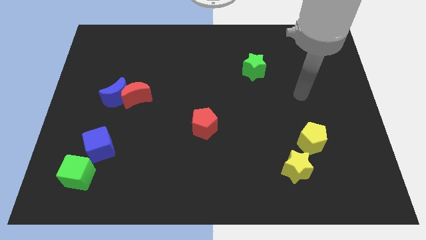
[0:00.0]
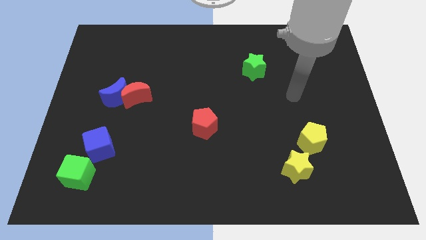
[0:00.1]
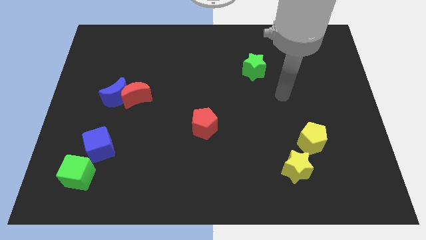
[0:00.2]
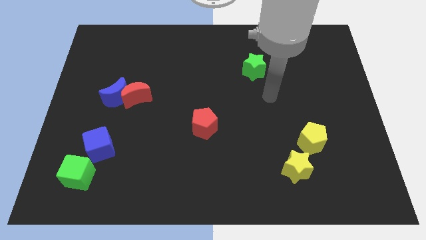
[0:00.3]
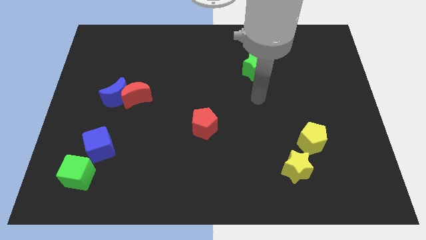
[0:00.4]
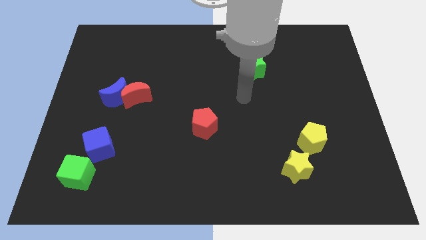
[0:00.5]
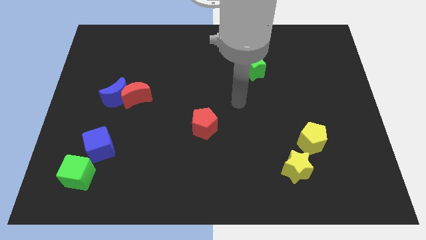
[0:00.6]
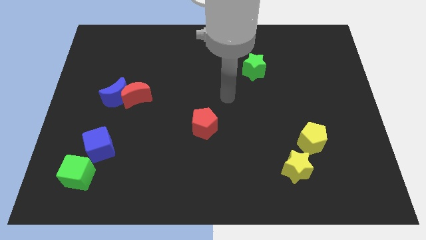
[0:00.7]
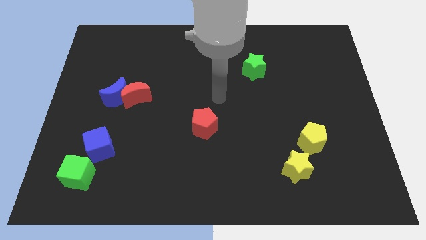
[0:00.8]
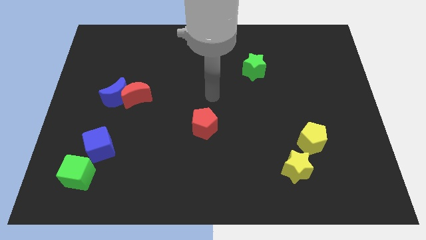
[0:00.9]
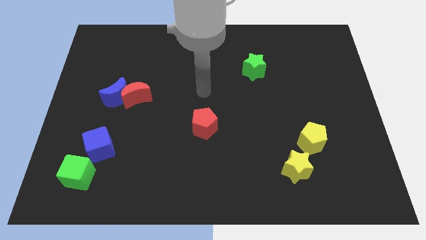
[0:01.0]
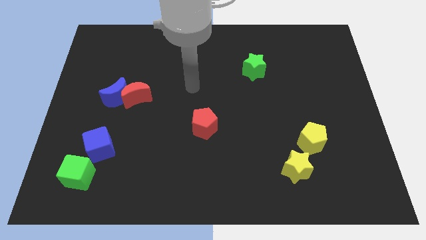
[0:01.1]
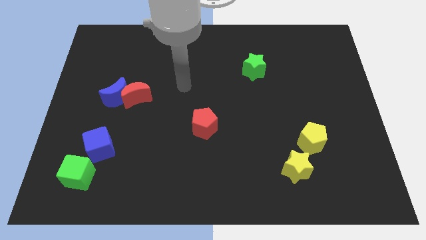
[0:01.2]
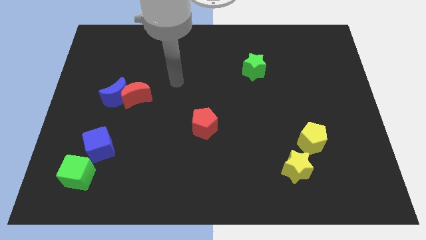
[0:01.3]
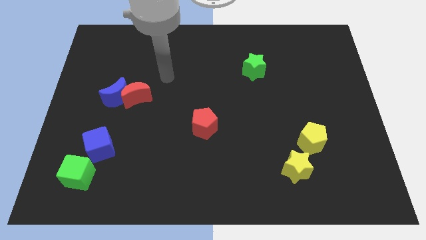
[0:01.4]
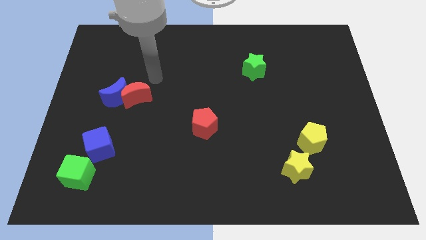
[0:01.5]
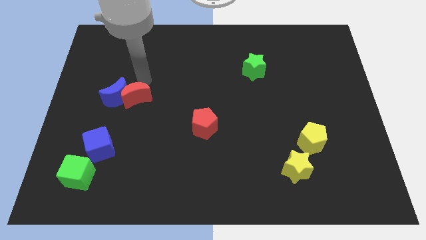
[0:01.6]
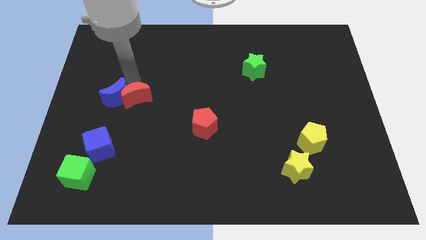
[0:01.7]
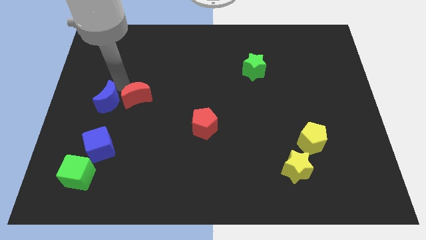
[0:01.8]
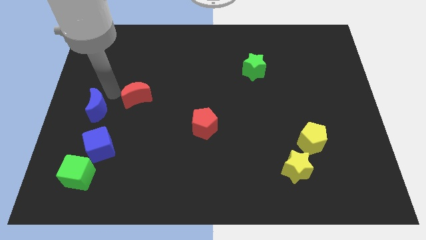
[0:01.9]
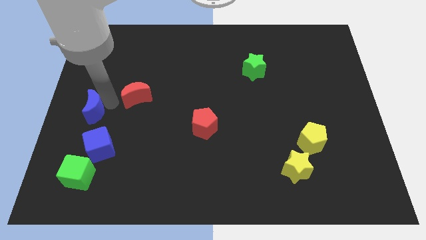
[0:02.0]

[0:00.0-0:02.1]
pull the red moon apart from the blue moon

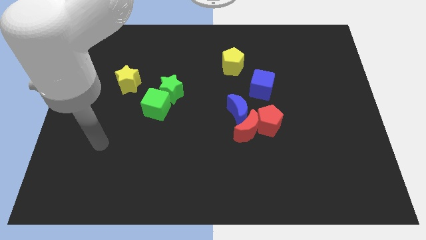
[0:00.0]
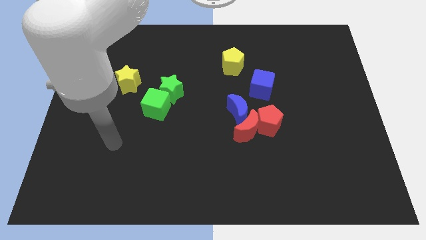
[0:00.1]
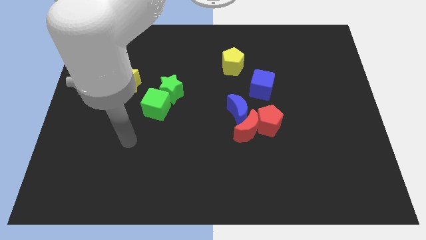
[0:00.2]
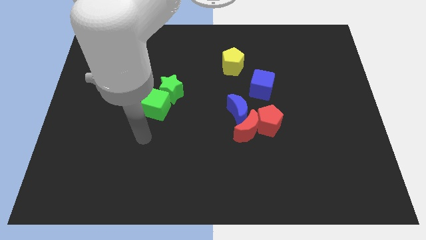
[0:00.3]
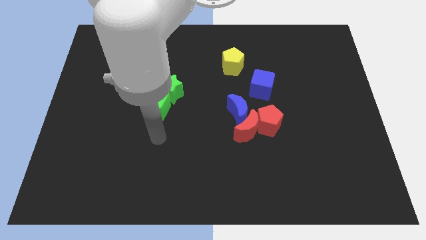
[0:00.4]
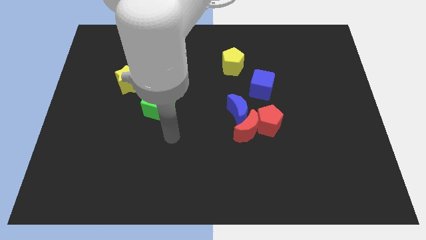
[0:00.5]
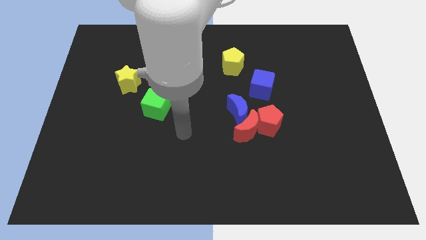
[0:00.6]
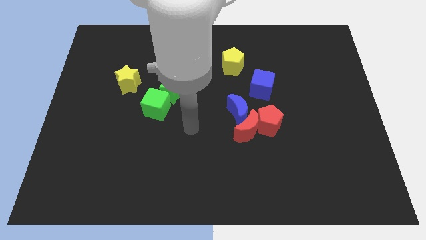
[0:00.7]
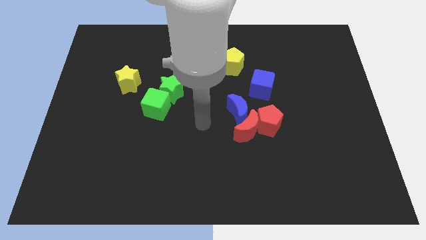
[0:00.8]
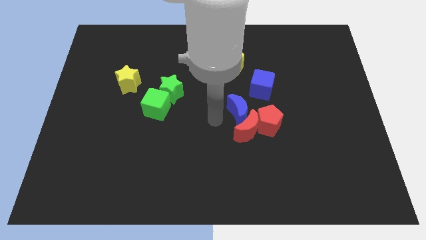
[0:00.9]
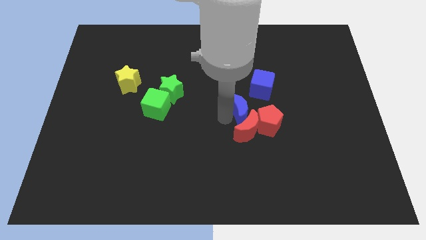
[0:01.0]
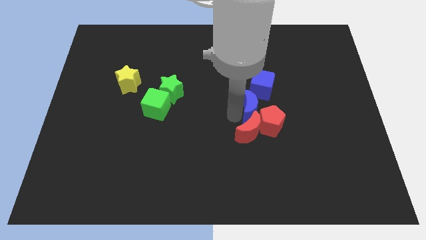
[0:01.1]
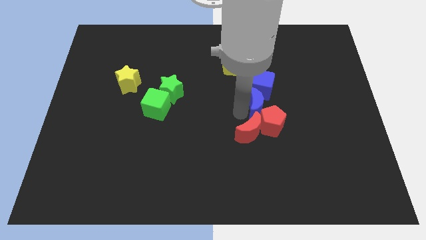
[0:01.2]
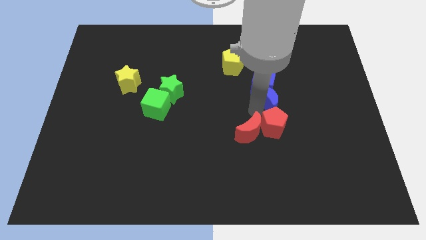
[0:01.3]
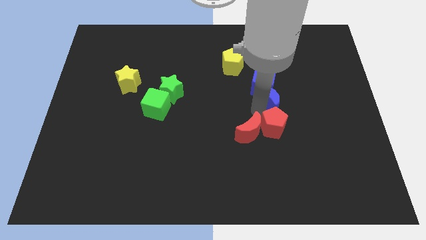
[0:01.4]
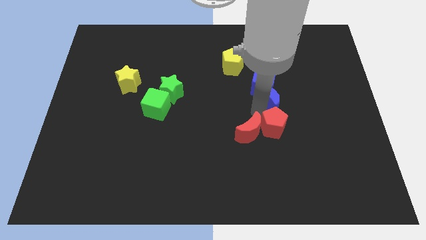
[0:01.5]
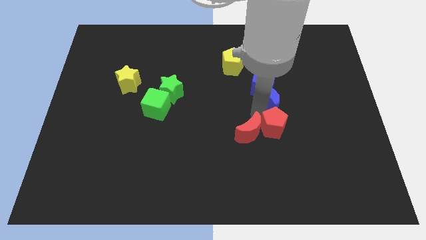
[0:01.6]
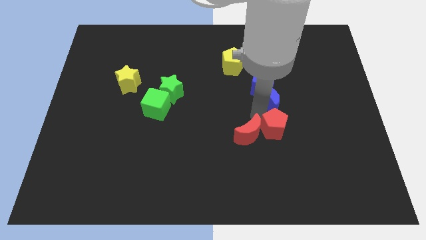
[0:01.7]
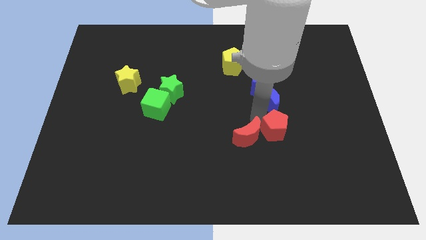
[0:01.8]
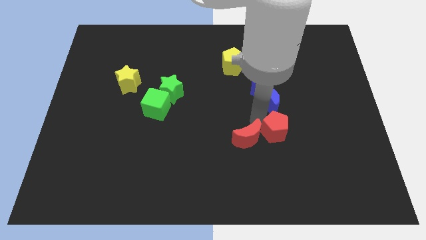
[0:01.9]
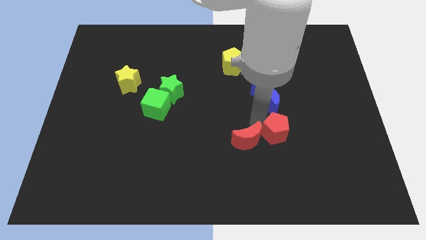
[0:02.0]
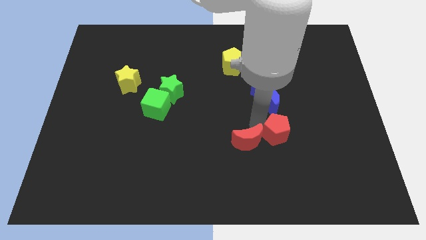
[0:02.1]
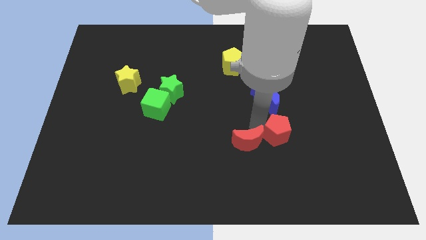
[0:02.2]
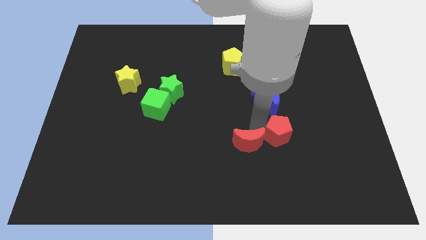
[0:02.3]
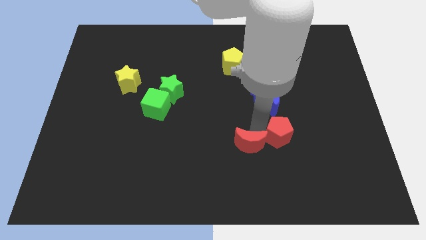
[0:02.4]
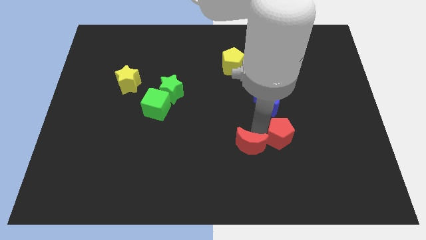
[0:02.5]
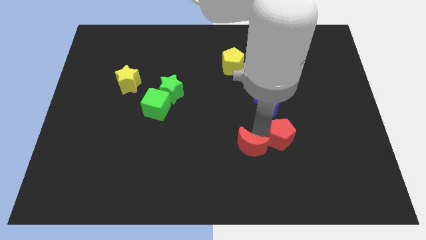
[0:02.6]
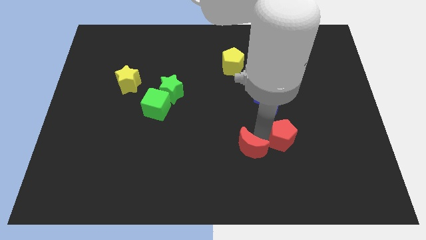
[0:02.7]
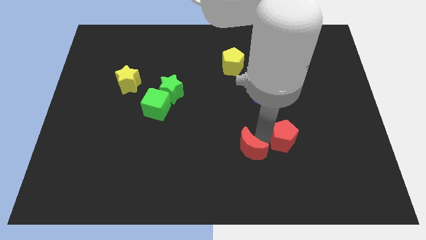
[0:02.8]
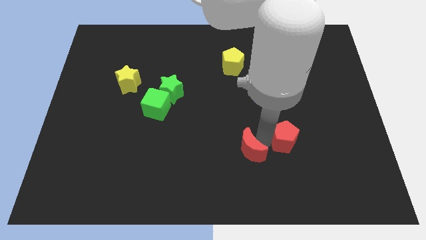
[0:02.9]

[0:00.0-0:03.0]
separate the red moon from the red pentagon and blue moon

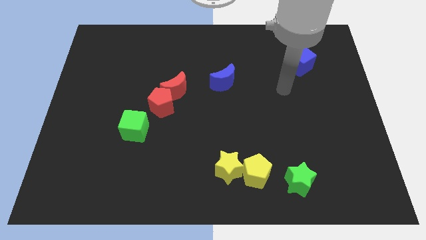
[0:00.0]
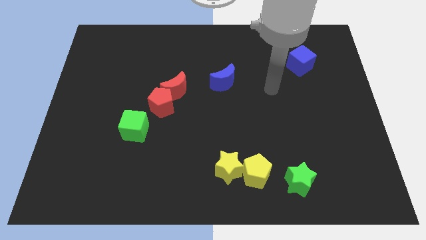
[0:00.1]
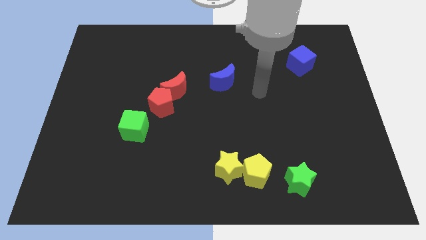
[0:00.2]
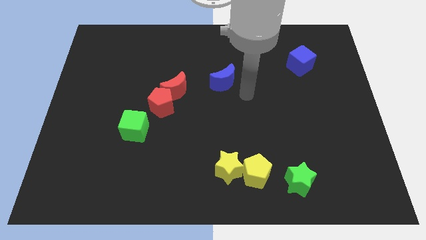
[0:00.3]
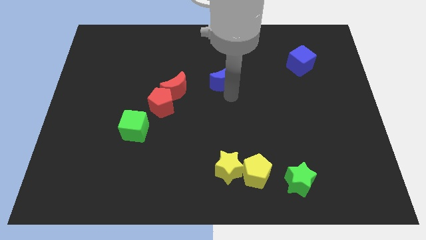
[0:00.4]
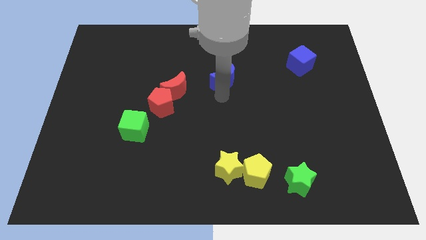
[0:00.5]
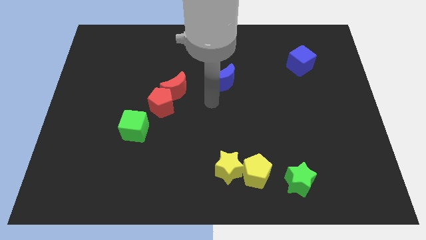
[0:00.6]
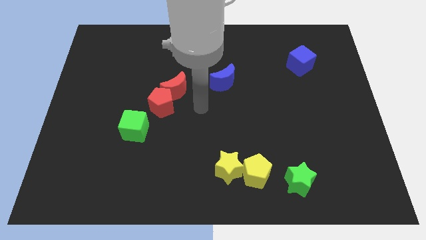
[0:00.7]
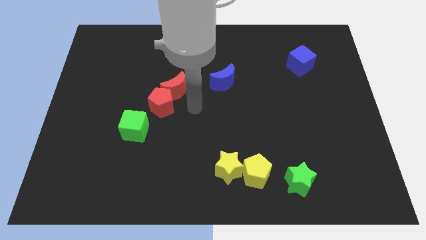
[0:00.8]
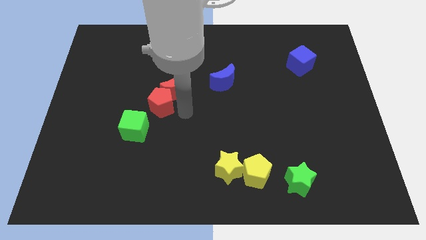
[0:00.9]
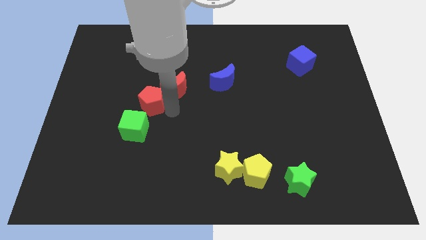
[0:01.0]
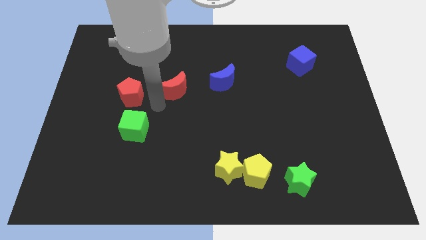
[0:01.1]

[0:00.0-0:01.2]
separate the red moon from the red pentagon

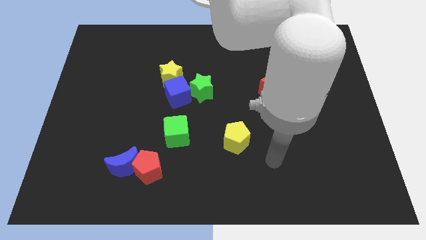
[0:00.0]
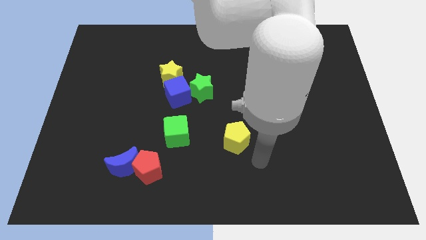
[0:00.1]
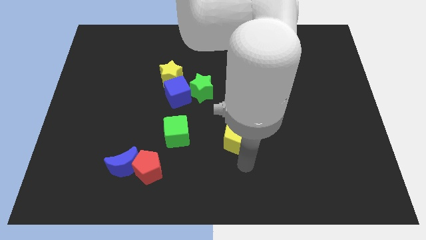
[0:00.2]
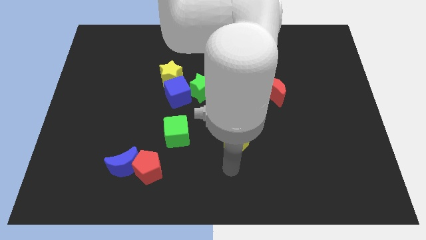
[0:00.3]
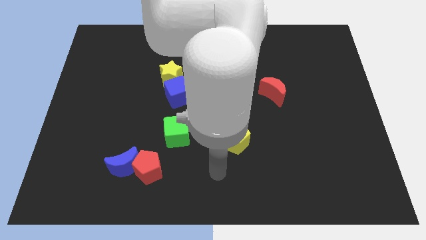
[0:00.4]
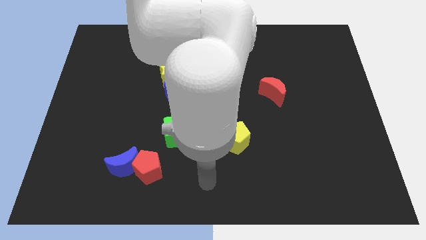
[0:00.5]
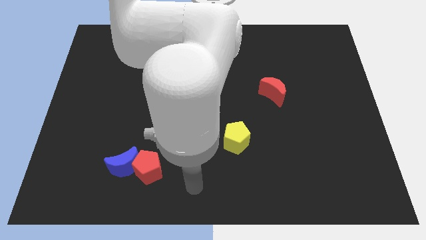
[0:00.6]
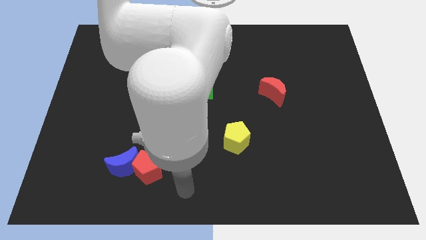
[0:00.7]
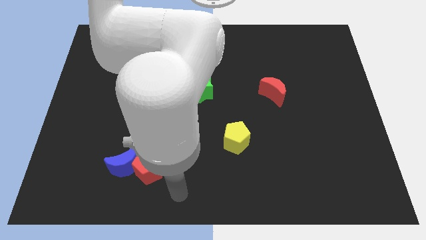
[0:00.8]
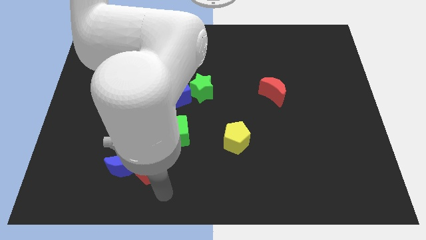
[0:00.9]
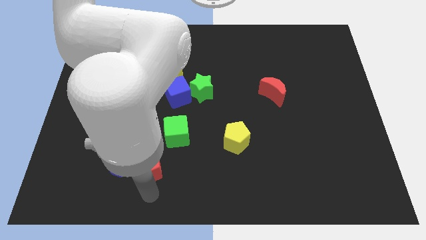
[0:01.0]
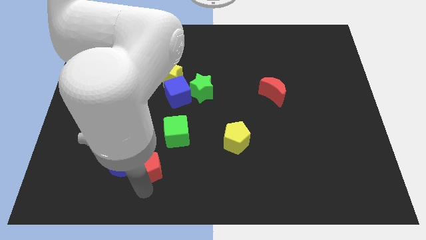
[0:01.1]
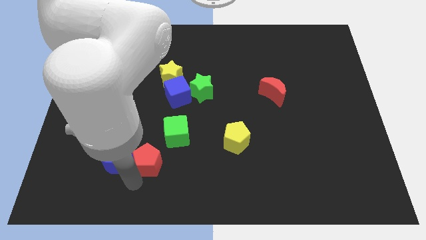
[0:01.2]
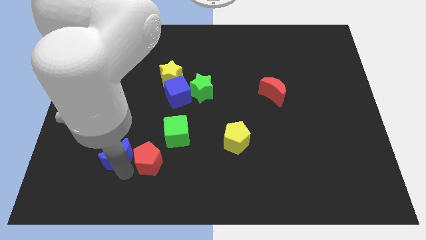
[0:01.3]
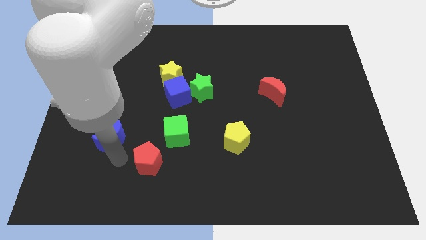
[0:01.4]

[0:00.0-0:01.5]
separate the red pentagon from the blue moon

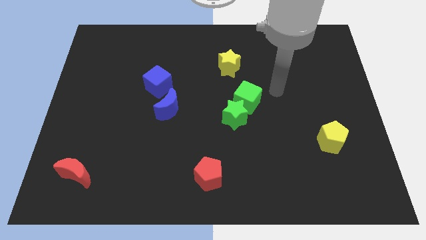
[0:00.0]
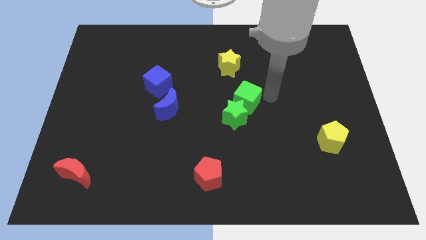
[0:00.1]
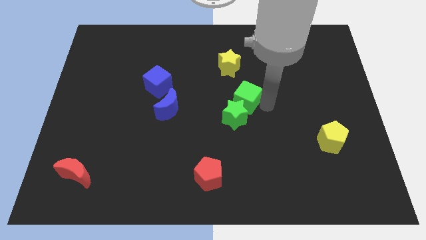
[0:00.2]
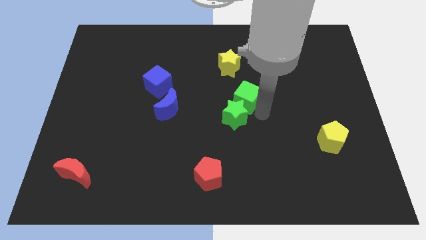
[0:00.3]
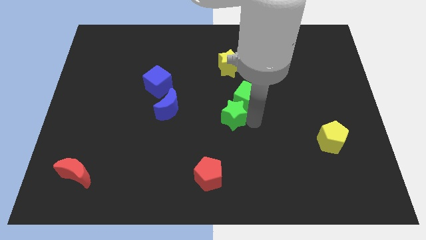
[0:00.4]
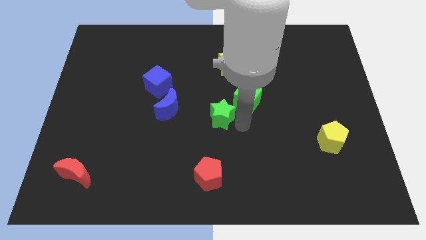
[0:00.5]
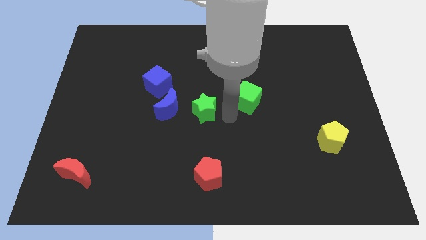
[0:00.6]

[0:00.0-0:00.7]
move the green cube away from the green star

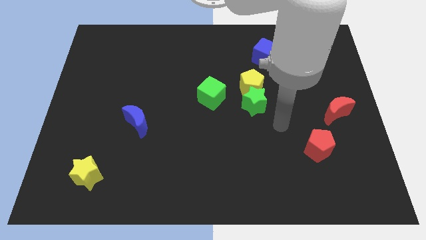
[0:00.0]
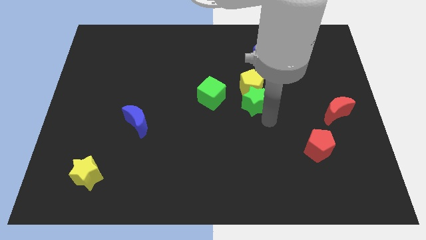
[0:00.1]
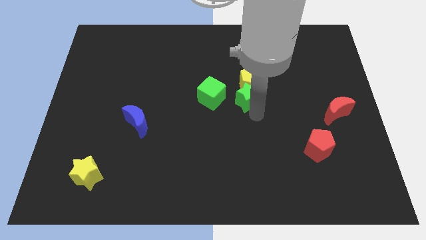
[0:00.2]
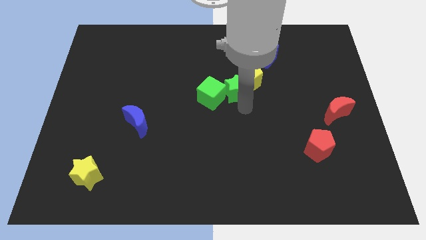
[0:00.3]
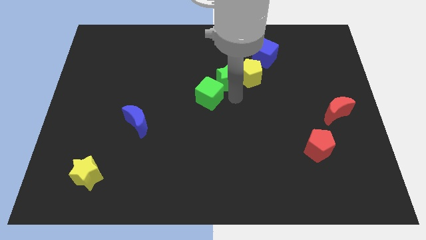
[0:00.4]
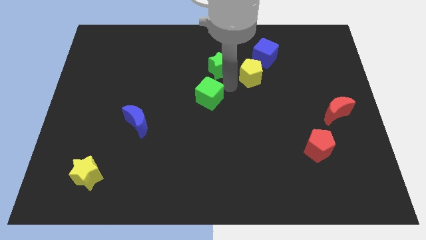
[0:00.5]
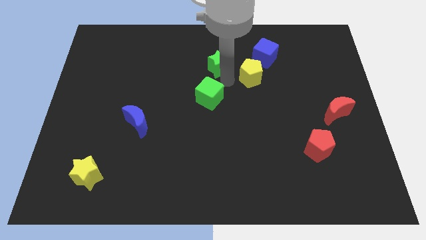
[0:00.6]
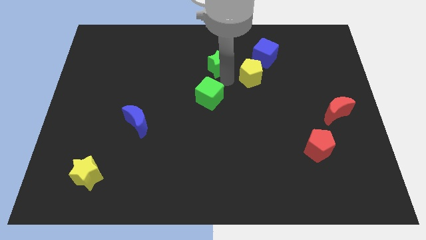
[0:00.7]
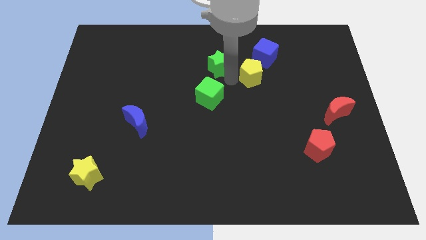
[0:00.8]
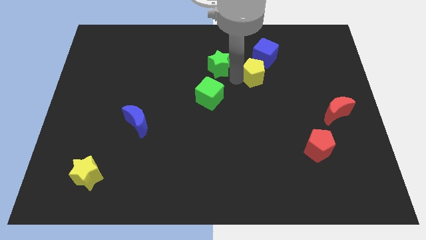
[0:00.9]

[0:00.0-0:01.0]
move the yellow pentagon away from the green star and green cube
